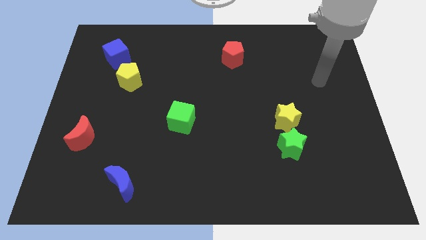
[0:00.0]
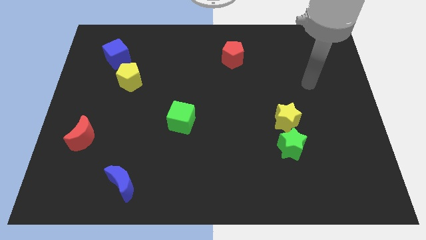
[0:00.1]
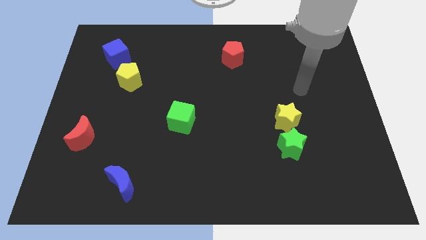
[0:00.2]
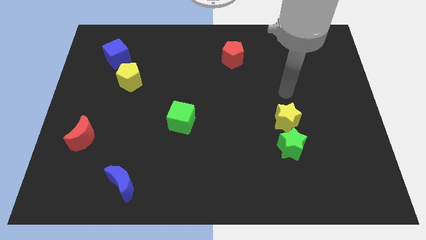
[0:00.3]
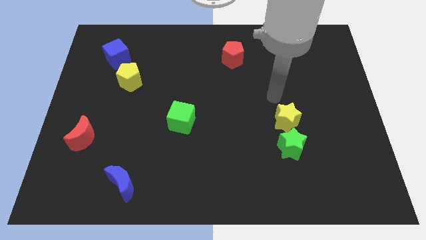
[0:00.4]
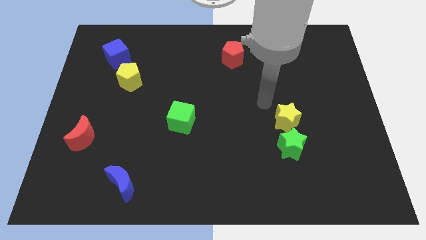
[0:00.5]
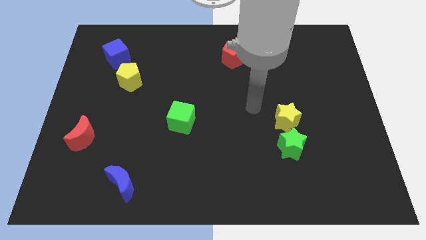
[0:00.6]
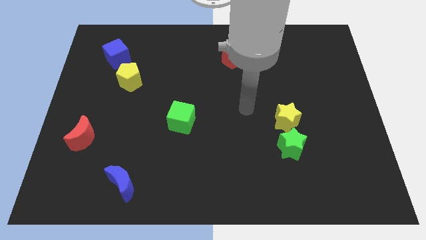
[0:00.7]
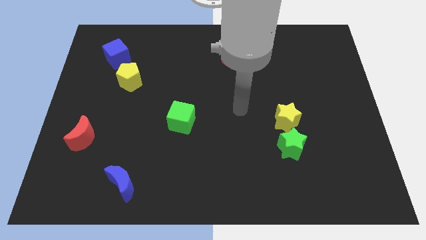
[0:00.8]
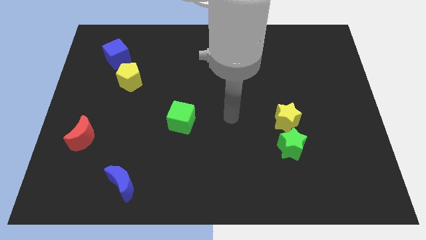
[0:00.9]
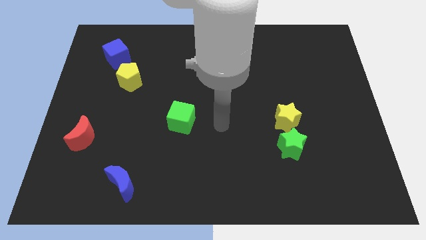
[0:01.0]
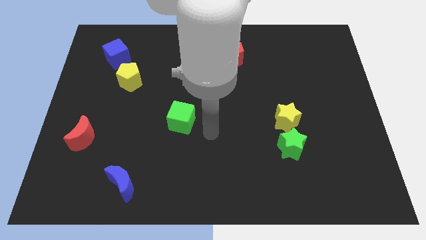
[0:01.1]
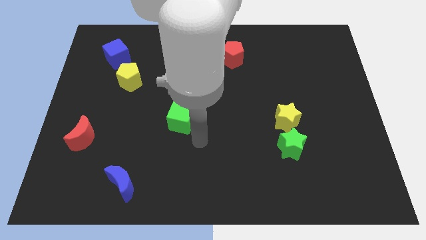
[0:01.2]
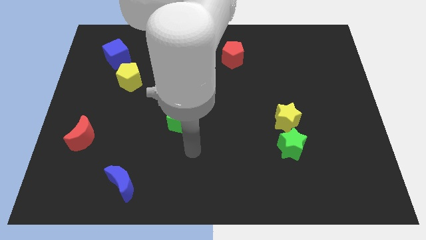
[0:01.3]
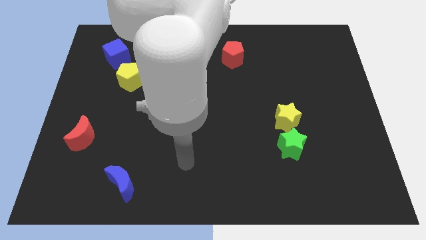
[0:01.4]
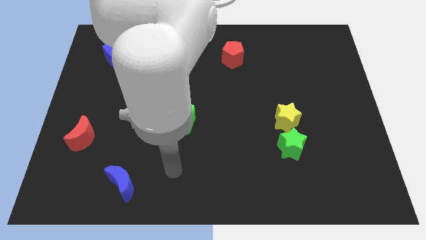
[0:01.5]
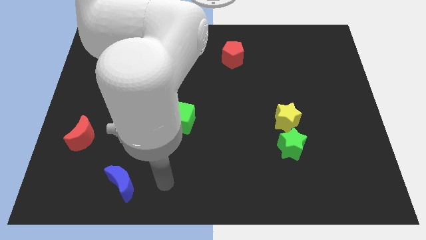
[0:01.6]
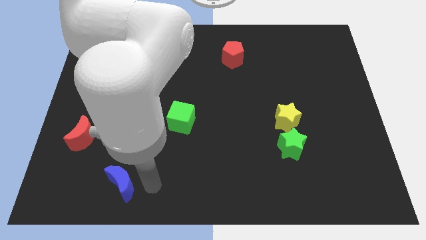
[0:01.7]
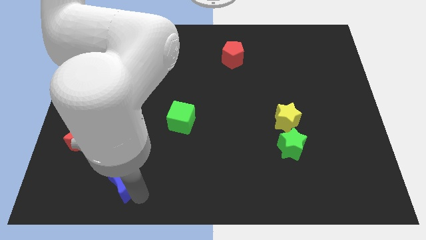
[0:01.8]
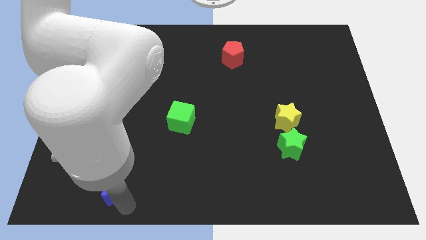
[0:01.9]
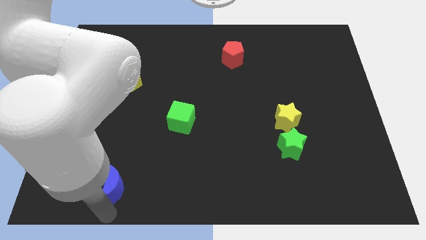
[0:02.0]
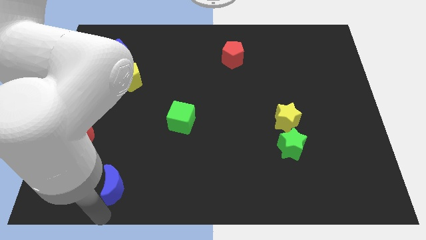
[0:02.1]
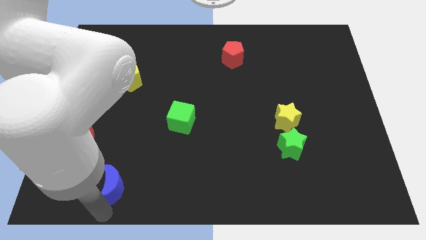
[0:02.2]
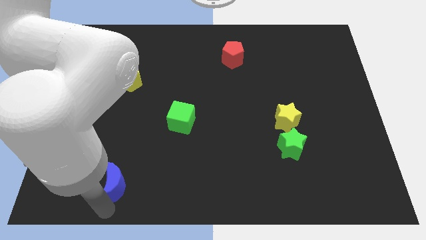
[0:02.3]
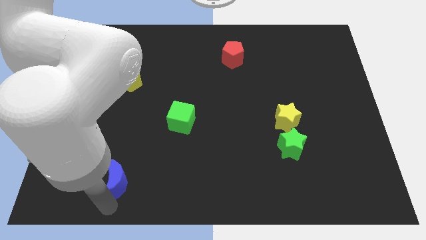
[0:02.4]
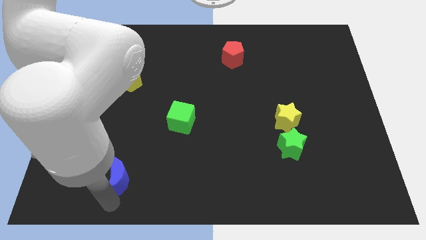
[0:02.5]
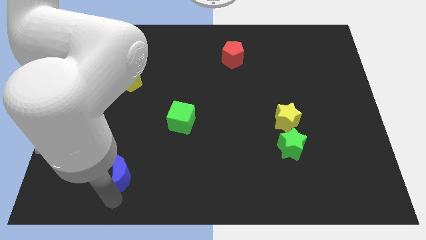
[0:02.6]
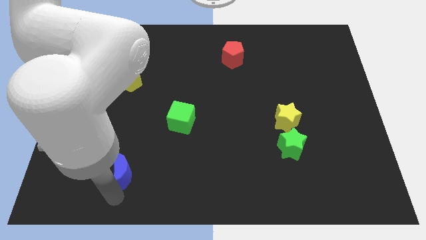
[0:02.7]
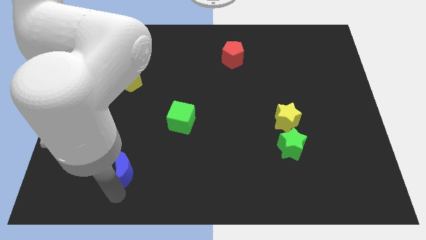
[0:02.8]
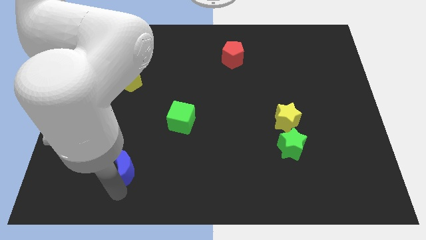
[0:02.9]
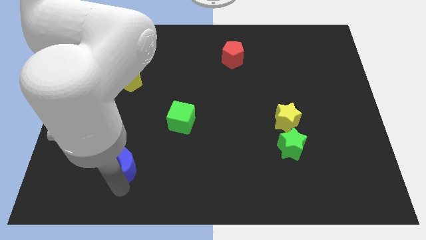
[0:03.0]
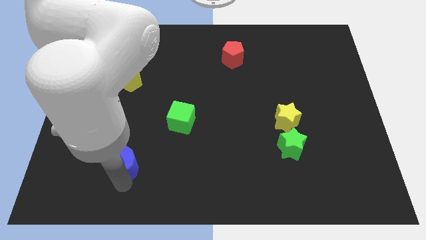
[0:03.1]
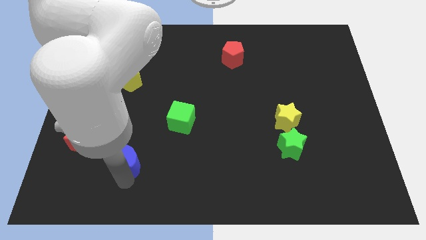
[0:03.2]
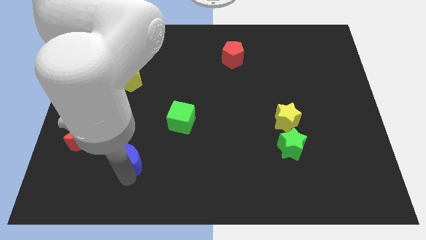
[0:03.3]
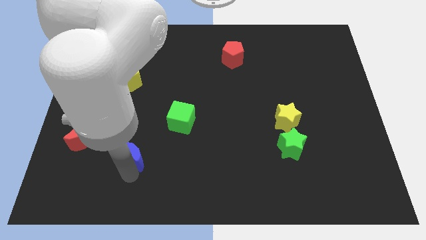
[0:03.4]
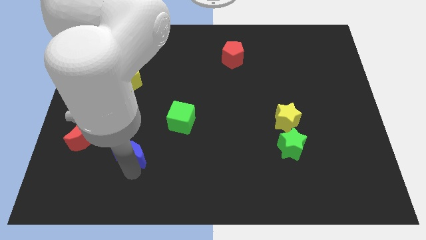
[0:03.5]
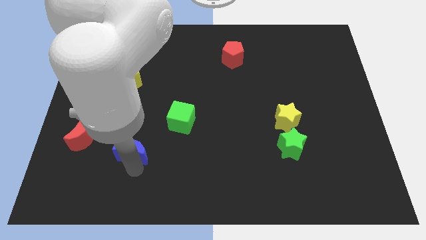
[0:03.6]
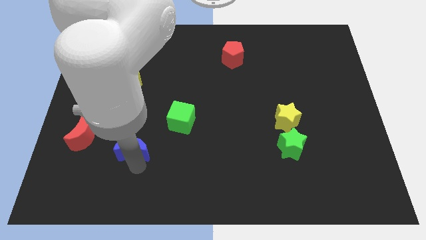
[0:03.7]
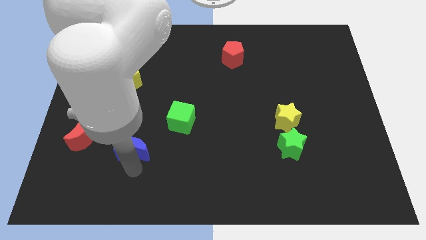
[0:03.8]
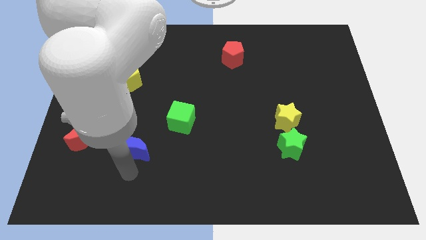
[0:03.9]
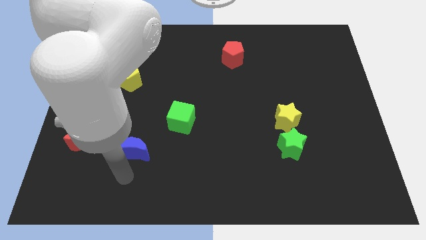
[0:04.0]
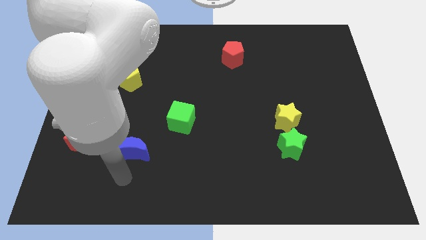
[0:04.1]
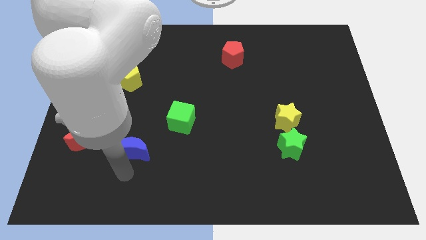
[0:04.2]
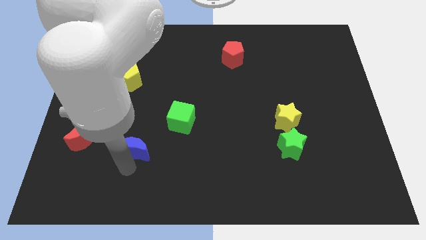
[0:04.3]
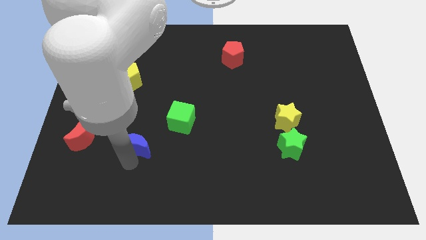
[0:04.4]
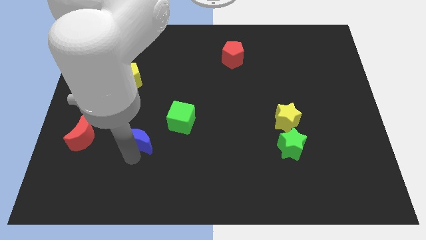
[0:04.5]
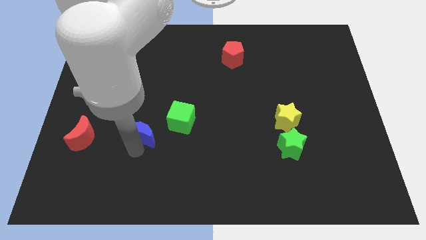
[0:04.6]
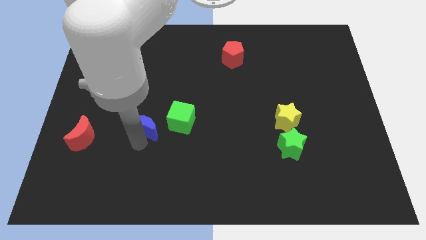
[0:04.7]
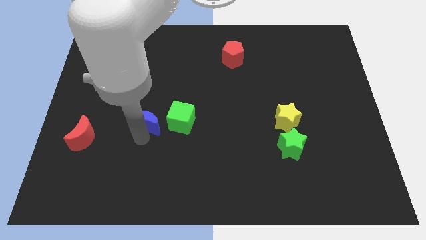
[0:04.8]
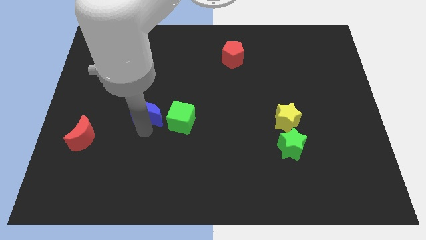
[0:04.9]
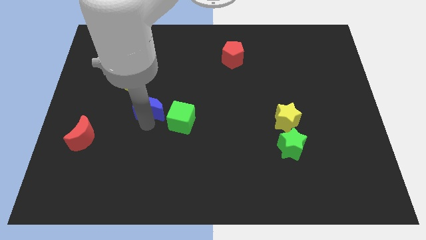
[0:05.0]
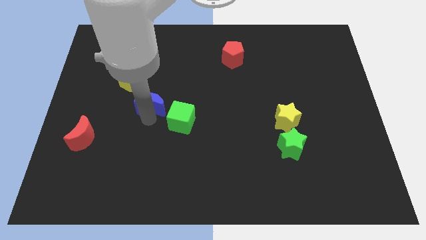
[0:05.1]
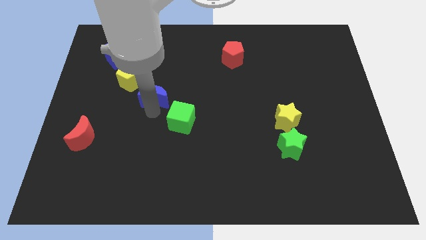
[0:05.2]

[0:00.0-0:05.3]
move the blue moon upwards

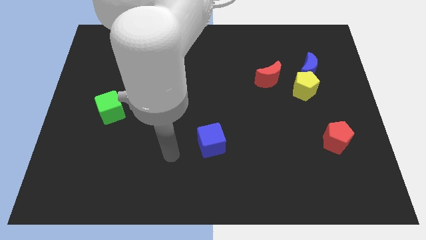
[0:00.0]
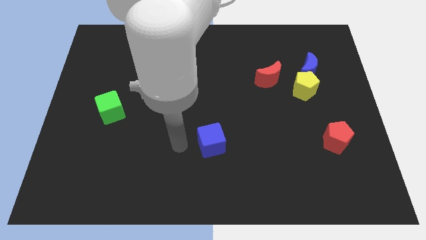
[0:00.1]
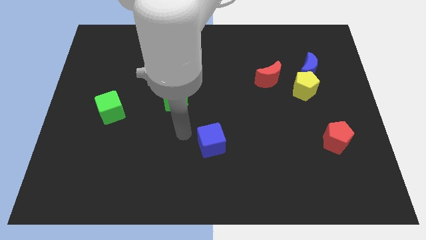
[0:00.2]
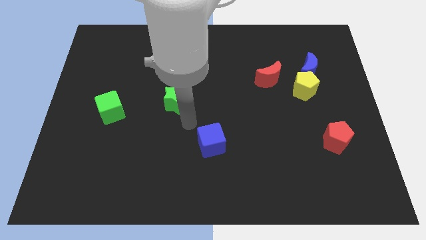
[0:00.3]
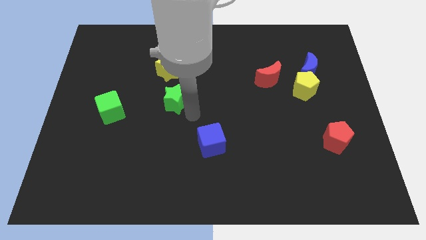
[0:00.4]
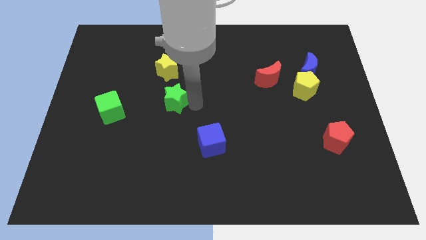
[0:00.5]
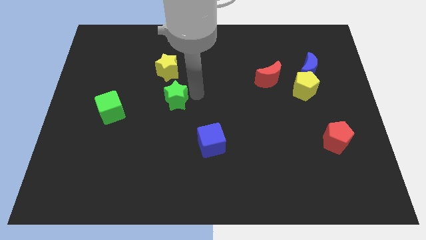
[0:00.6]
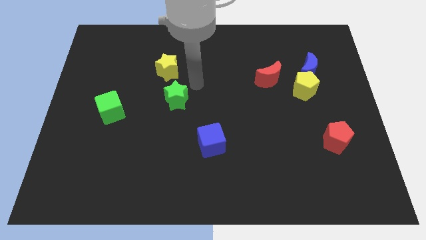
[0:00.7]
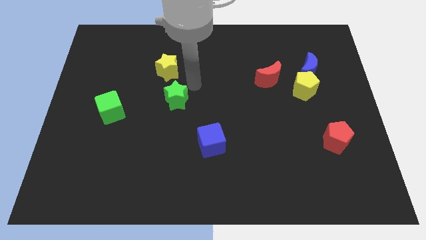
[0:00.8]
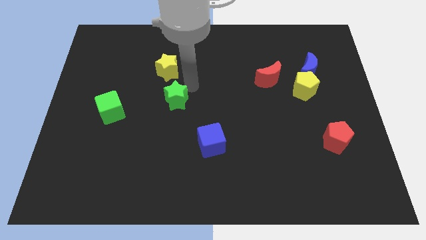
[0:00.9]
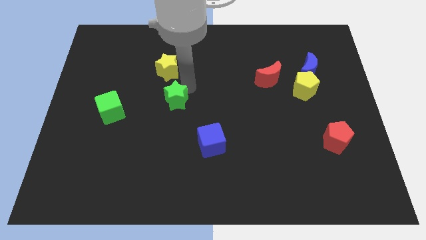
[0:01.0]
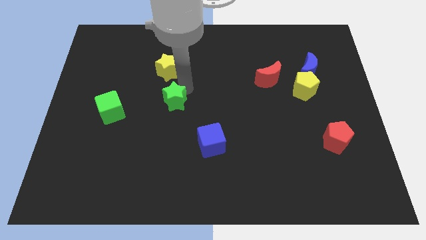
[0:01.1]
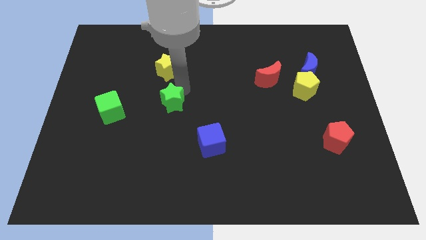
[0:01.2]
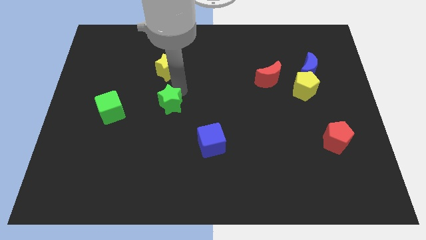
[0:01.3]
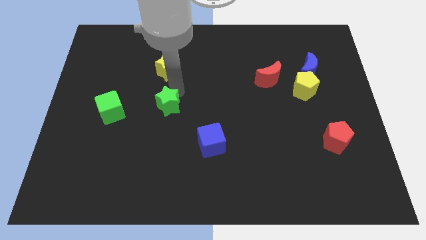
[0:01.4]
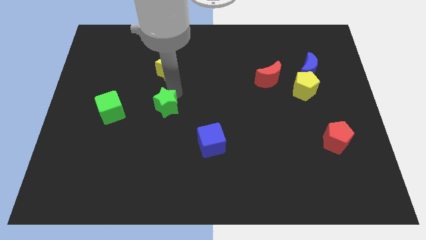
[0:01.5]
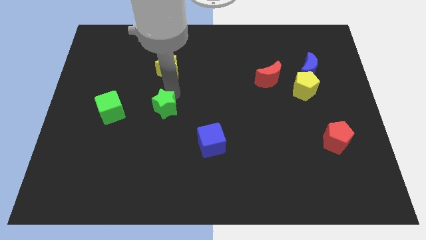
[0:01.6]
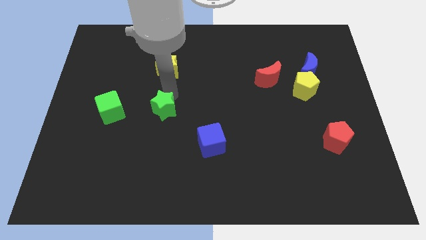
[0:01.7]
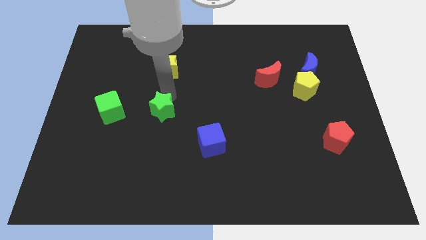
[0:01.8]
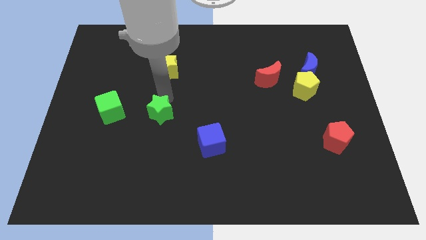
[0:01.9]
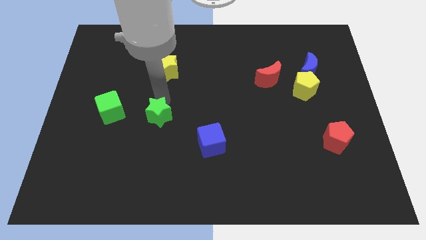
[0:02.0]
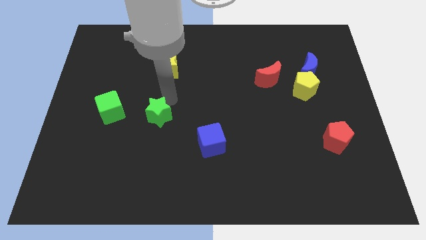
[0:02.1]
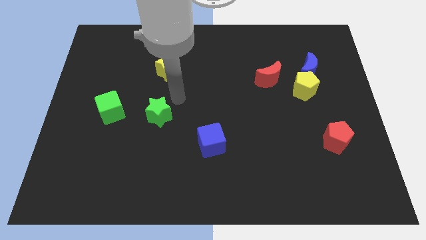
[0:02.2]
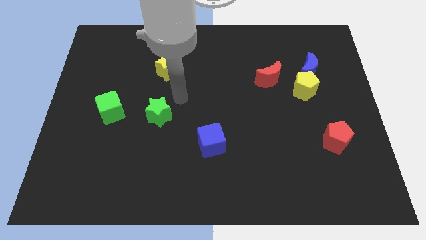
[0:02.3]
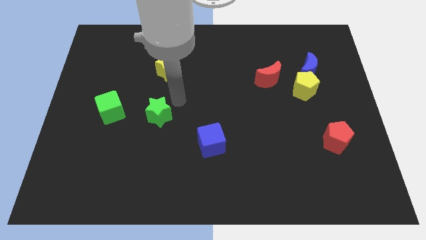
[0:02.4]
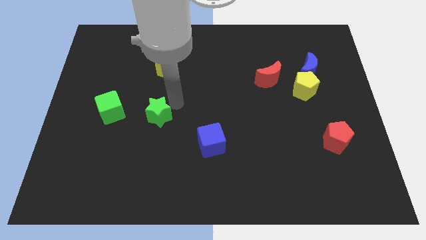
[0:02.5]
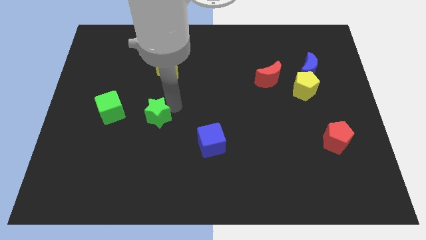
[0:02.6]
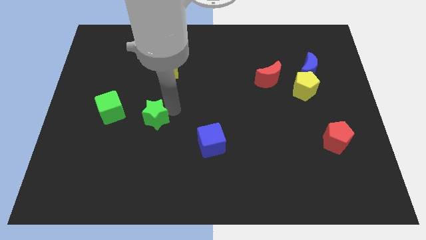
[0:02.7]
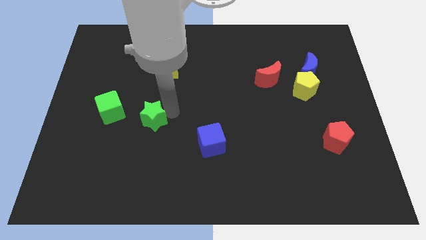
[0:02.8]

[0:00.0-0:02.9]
move the green star a bit downwards and to the left

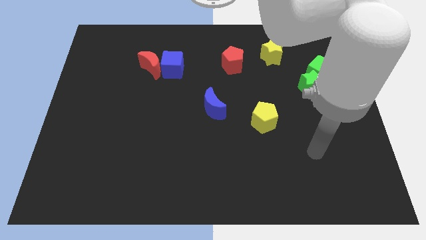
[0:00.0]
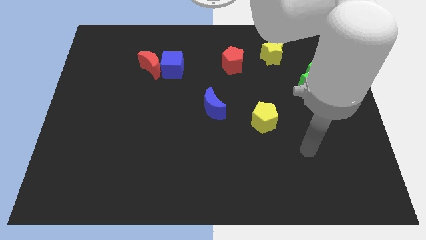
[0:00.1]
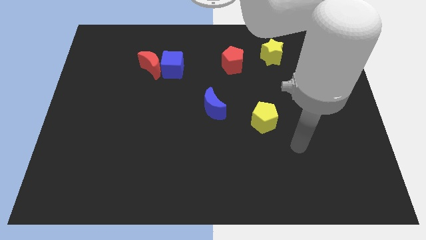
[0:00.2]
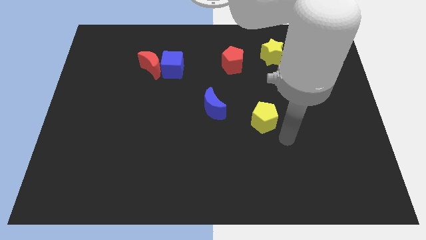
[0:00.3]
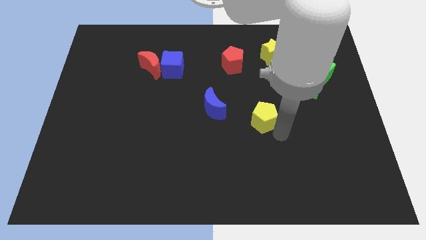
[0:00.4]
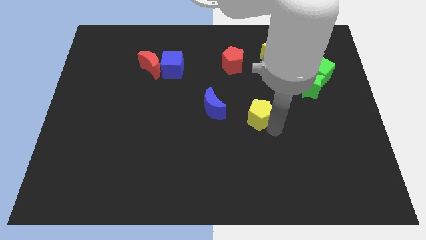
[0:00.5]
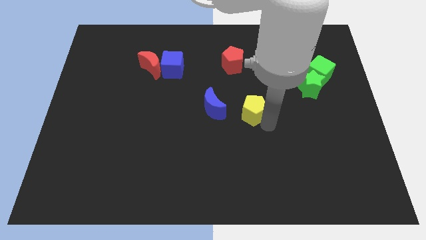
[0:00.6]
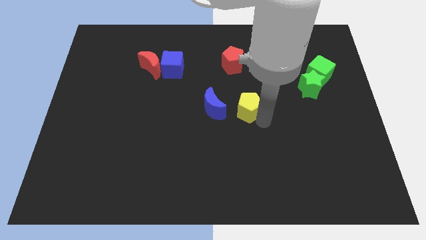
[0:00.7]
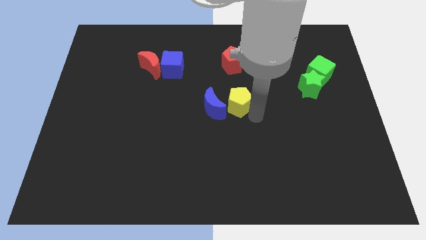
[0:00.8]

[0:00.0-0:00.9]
slide the yellow pentagon upwards and left slightly
